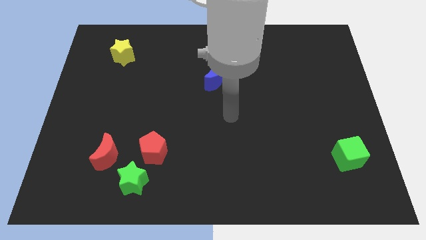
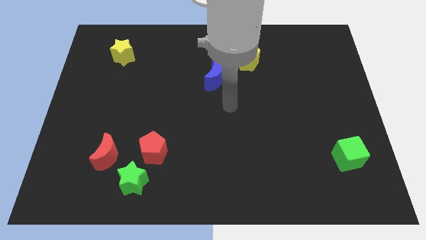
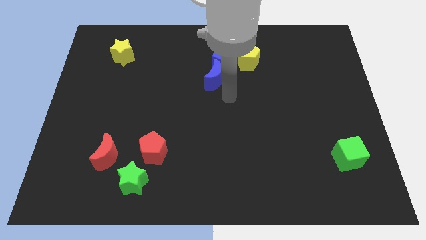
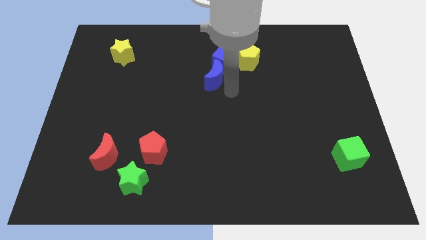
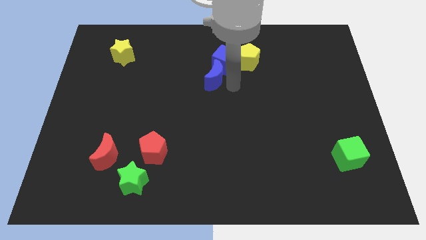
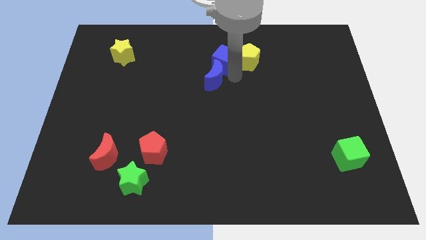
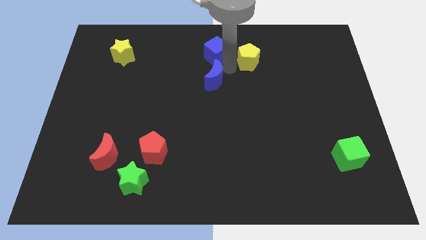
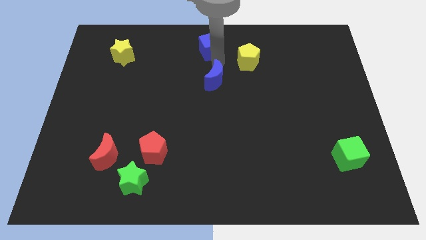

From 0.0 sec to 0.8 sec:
pull the blue moon apart from the blue cube

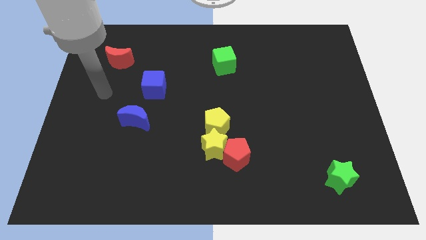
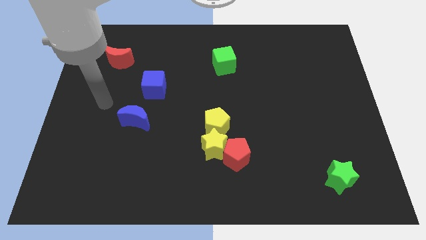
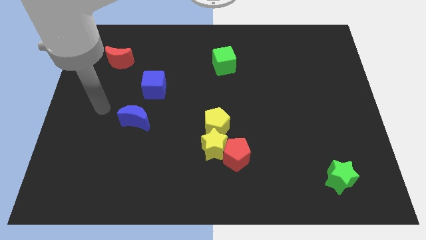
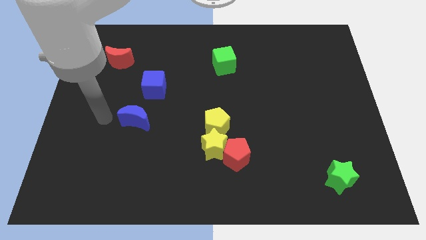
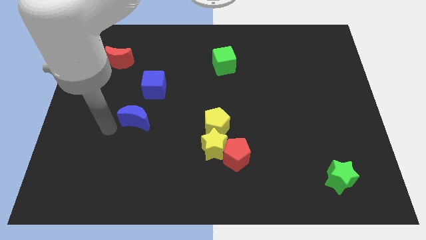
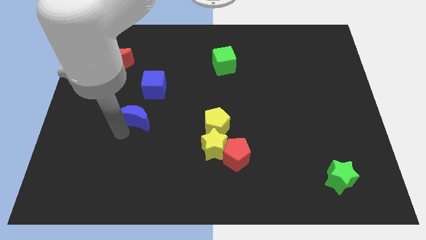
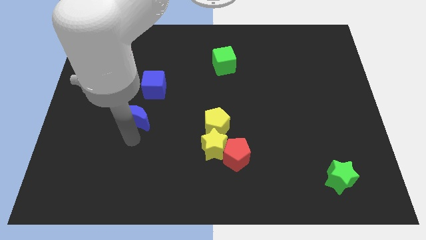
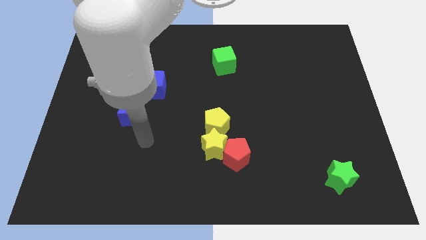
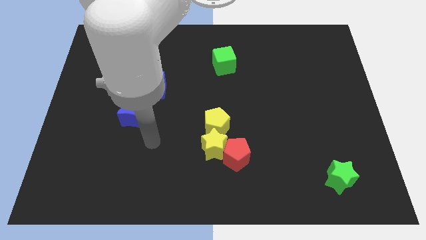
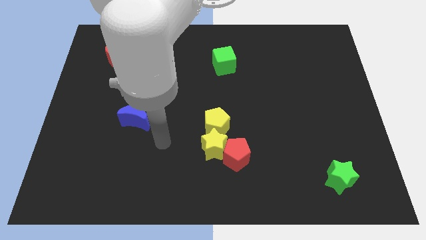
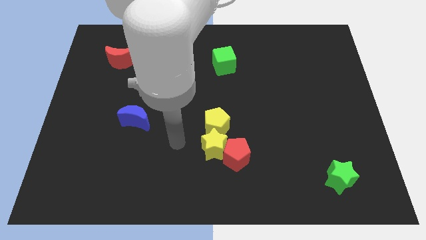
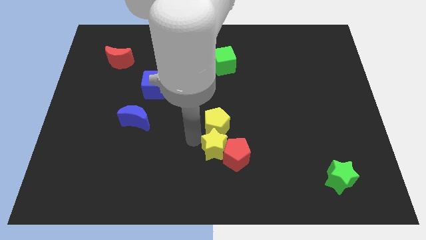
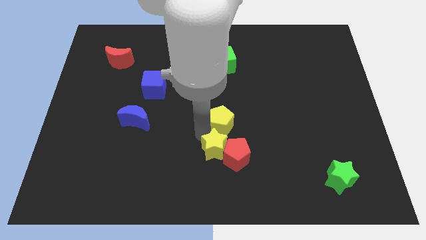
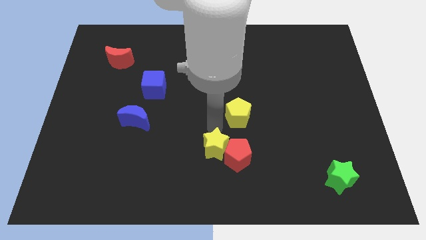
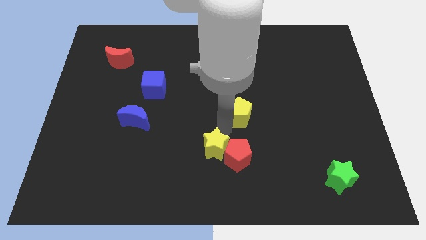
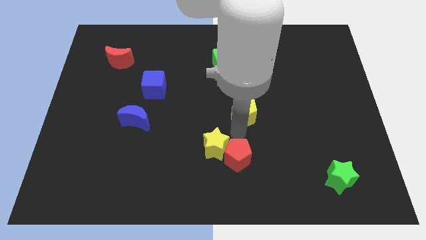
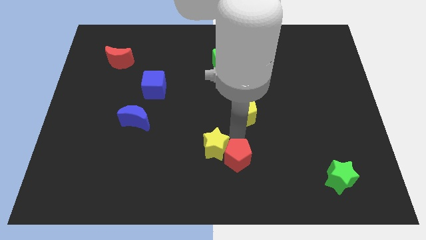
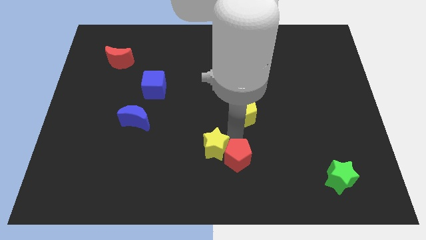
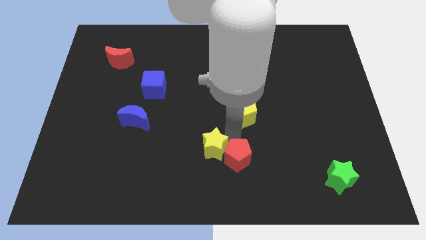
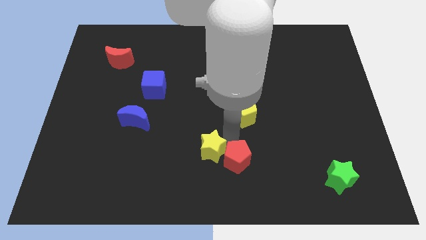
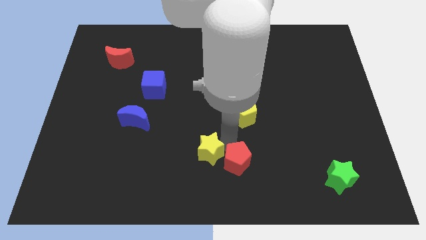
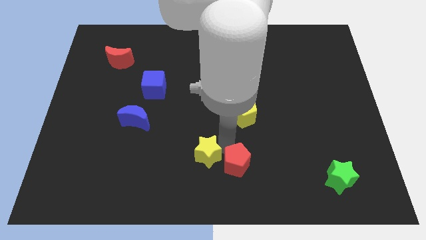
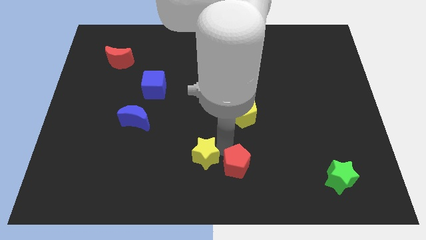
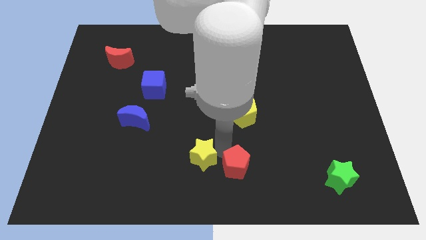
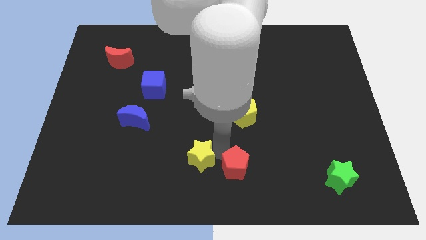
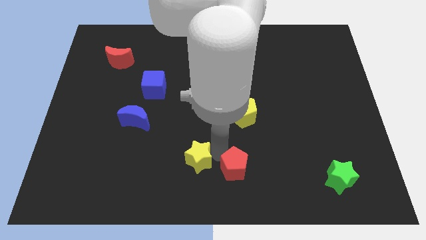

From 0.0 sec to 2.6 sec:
separate the yellow star from the red pentagon and yellow pentagon

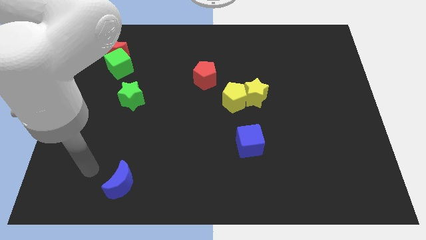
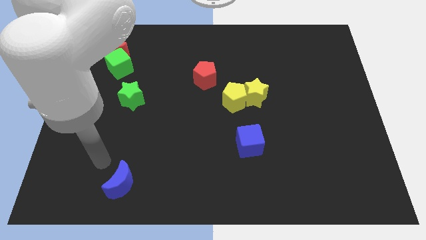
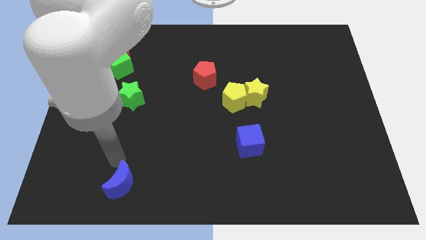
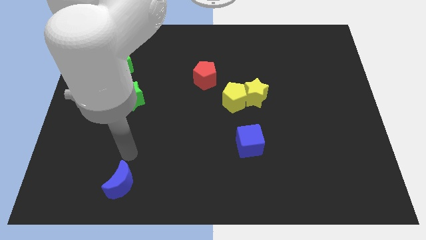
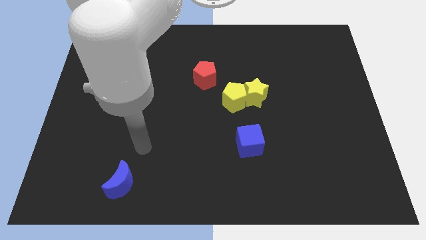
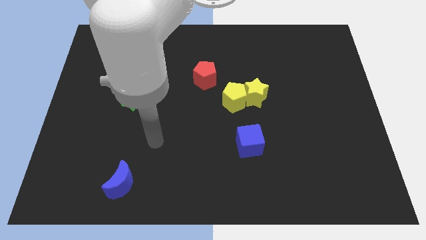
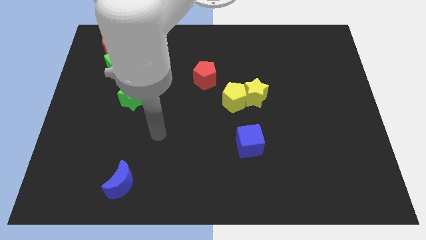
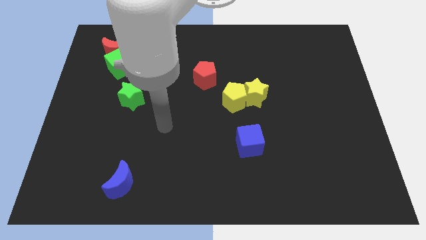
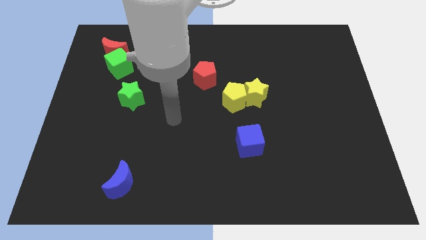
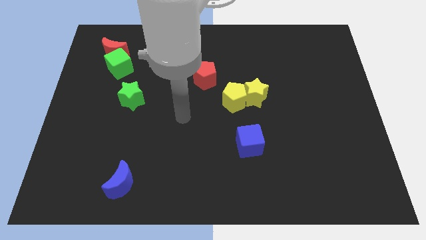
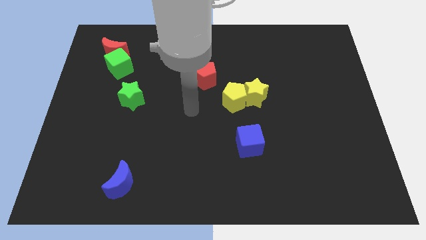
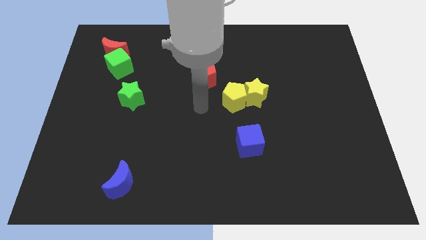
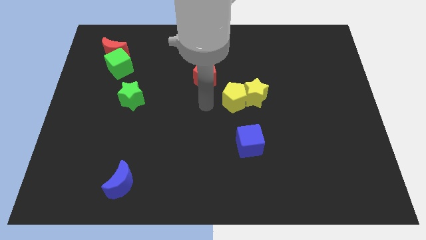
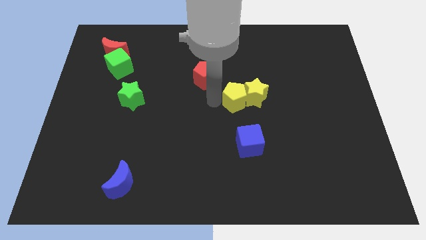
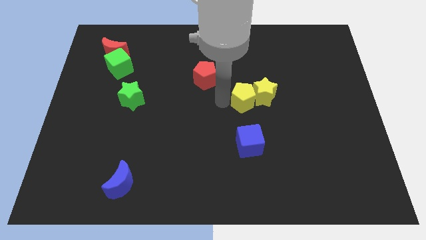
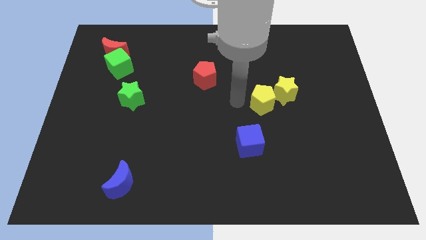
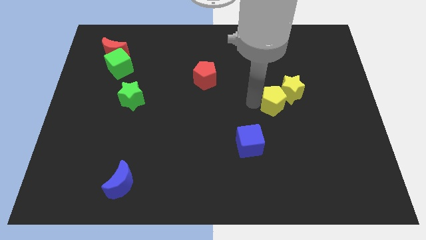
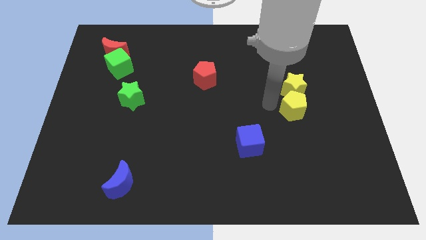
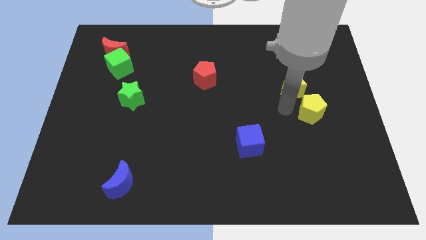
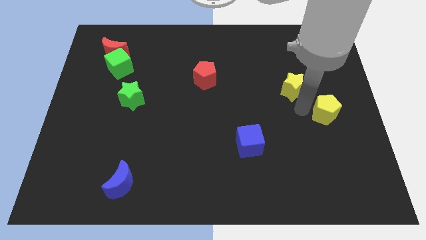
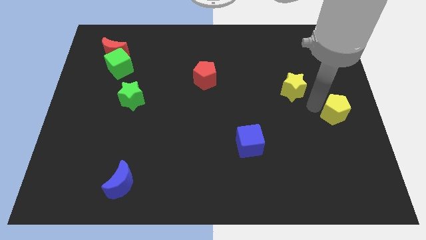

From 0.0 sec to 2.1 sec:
separate the yellow star from the yellow pentagon

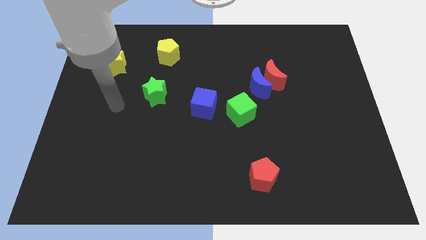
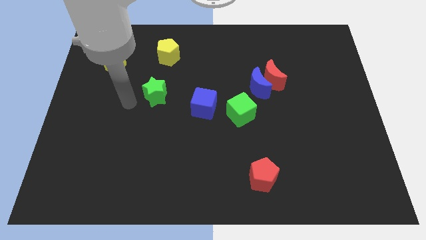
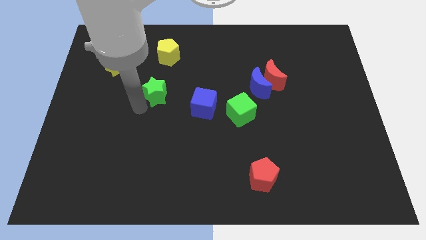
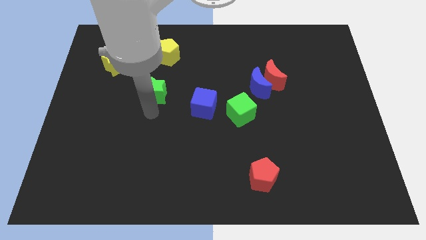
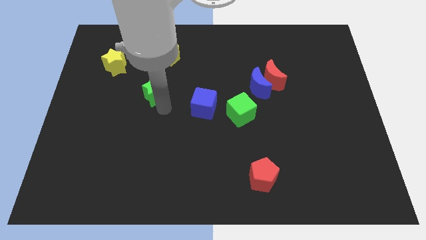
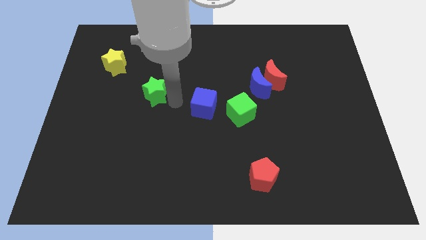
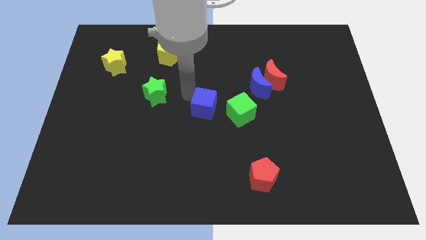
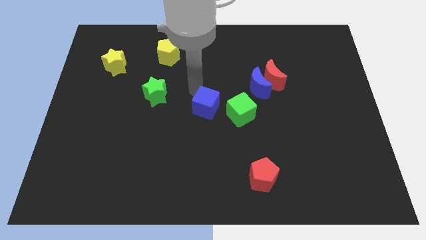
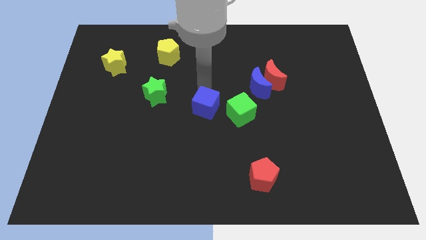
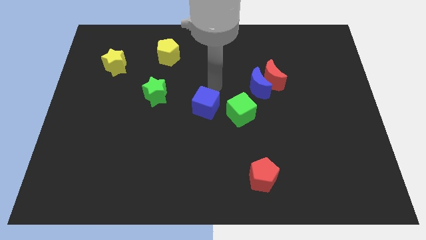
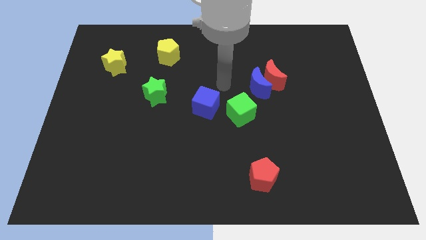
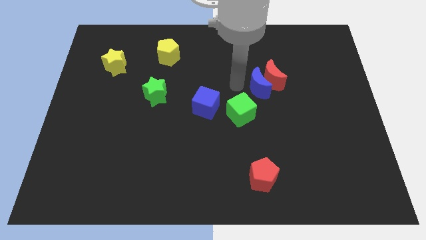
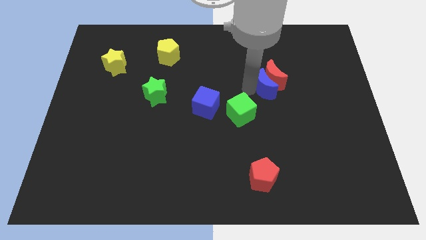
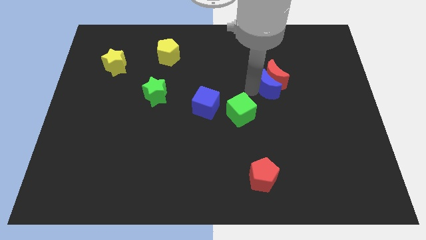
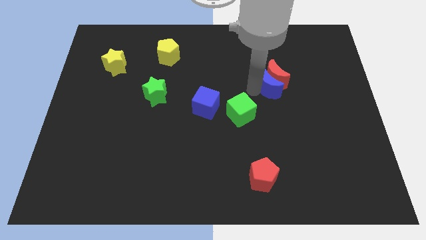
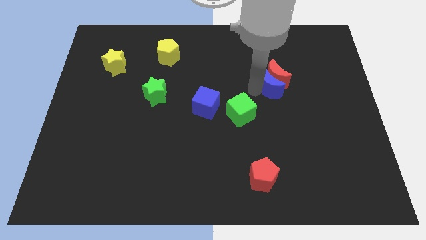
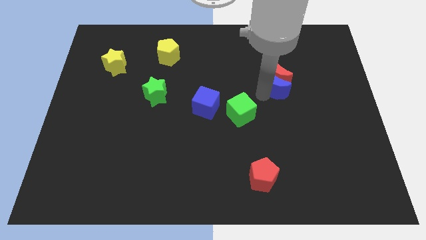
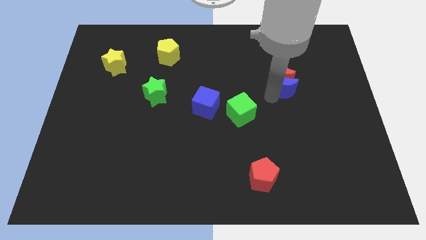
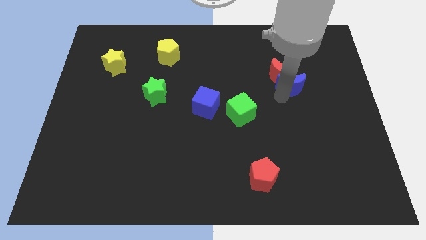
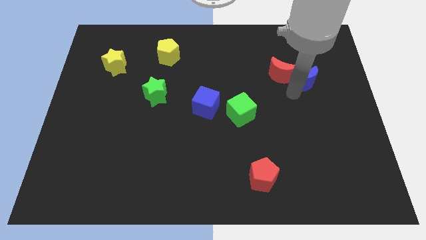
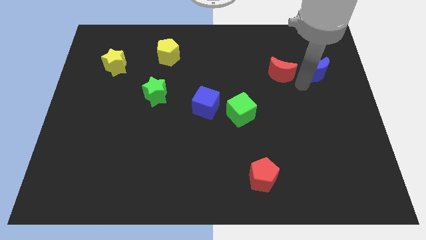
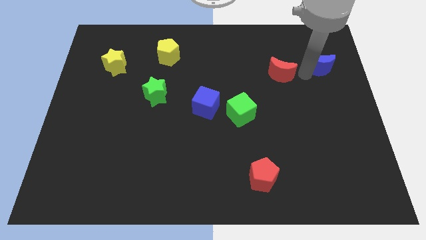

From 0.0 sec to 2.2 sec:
separate the red moon from the blue moon

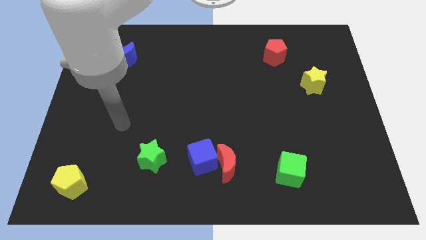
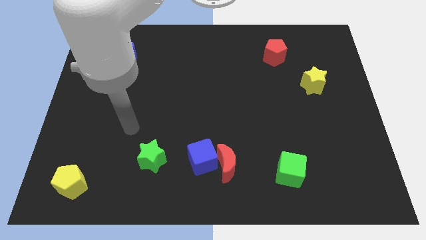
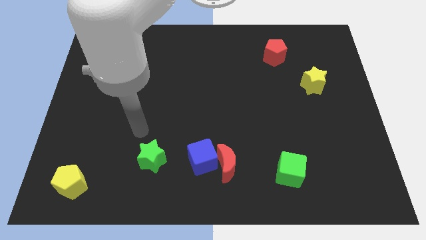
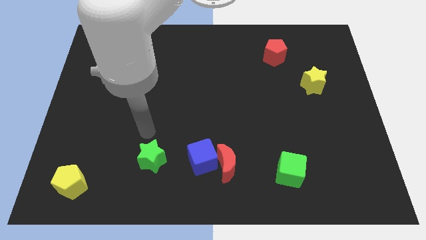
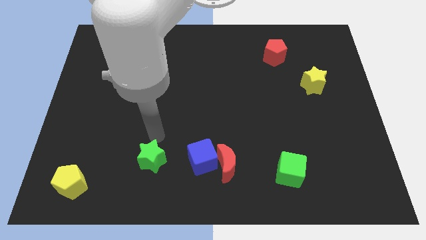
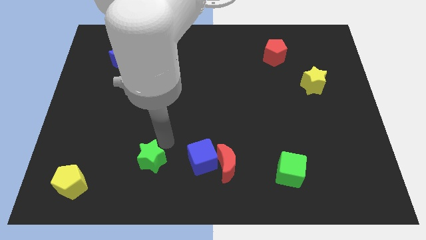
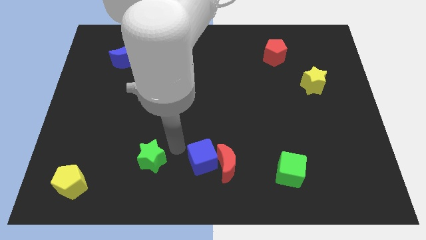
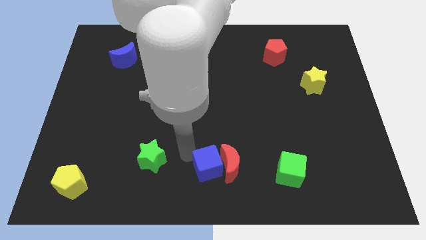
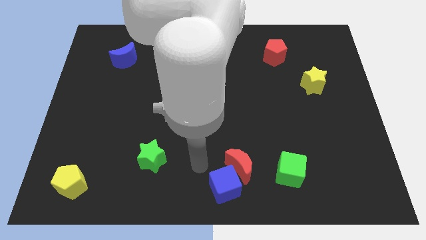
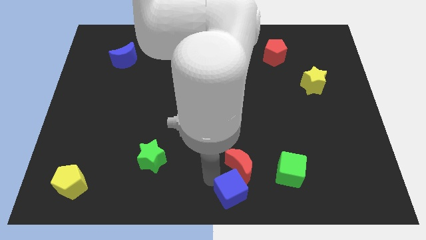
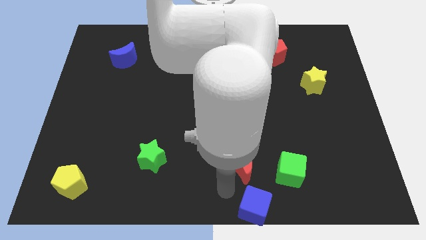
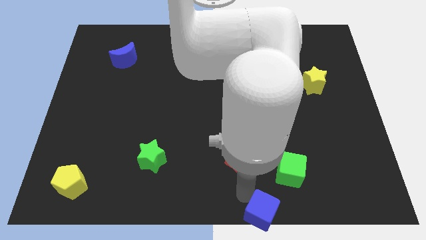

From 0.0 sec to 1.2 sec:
separate the red moon from the blue cube

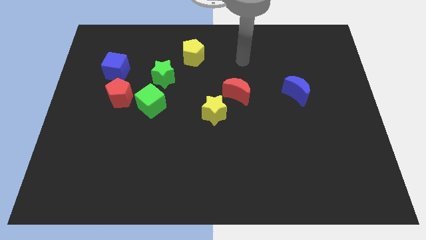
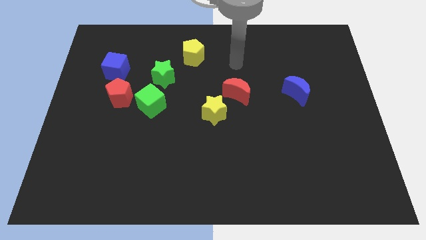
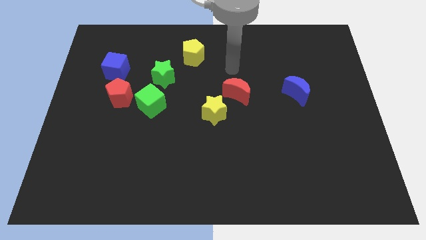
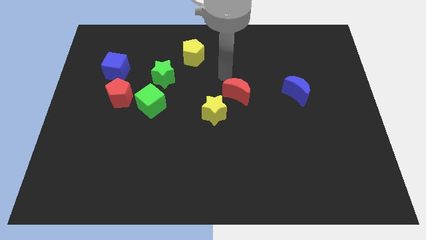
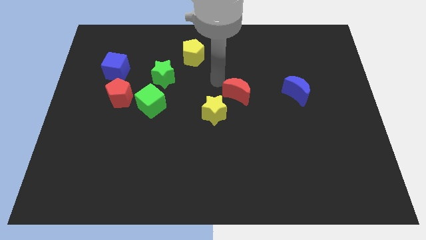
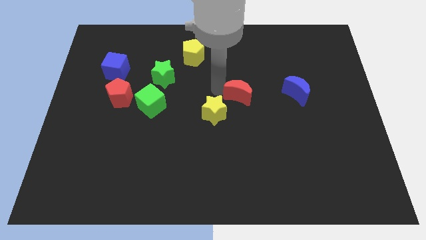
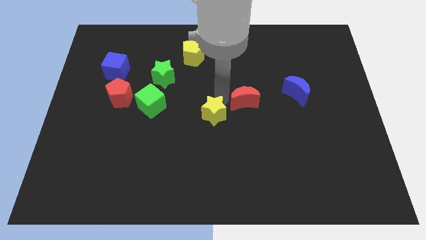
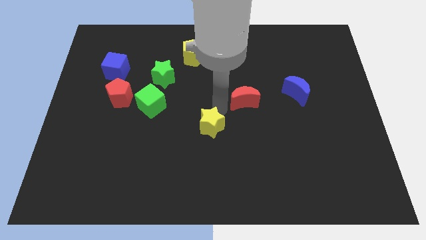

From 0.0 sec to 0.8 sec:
pull the red moon apart from the yellow star
